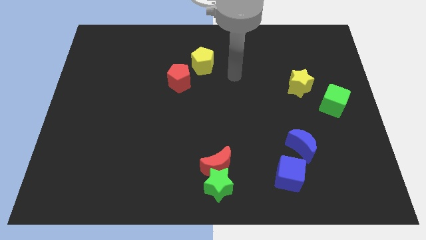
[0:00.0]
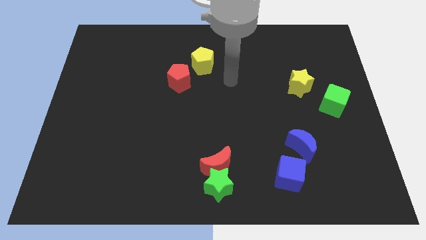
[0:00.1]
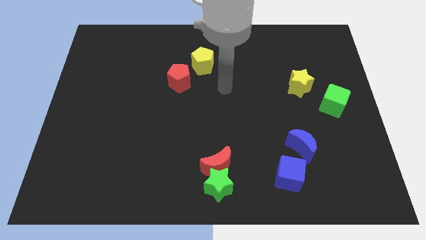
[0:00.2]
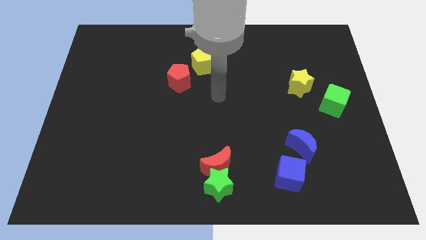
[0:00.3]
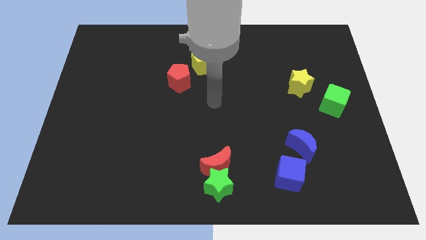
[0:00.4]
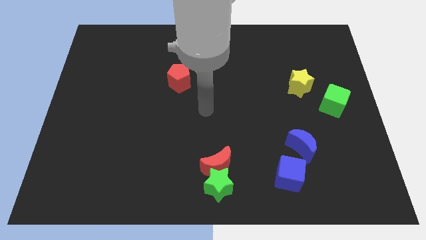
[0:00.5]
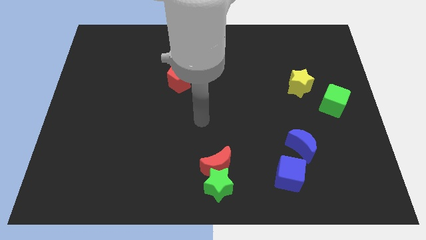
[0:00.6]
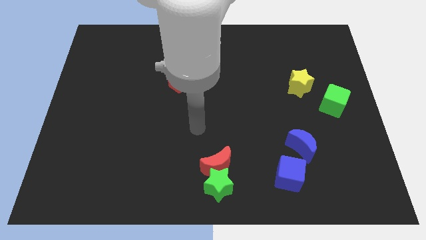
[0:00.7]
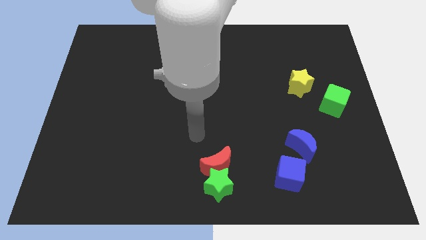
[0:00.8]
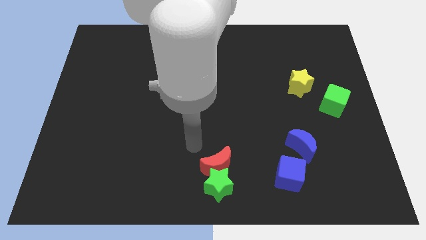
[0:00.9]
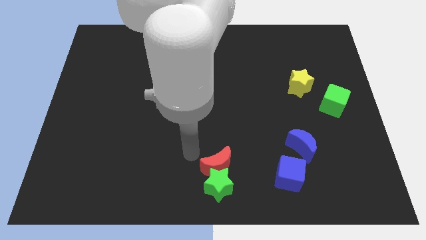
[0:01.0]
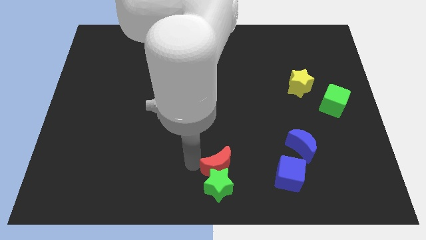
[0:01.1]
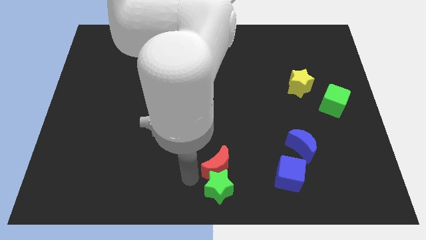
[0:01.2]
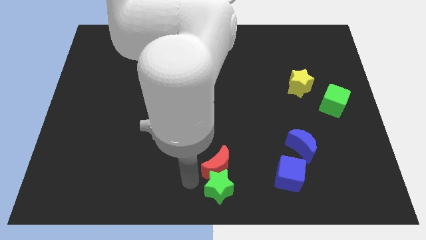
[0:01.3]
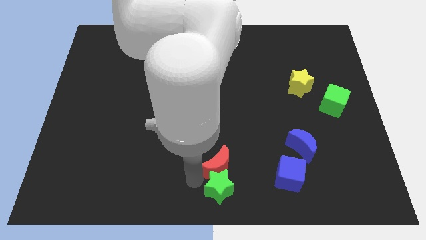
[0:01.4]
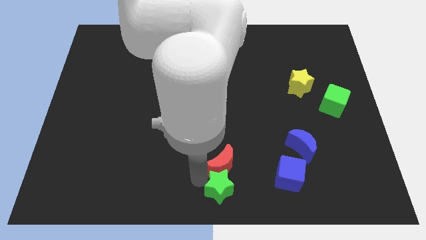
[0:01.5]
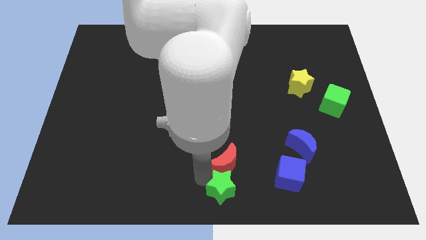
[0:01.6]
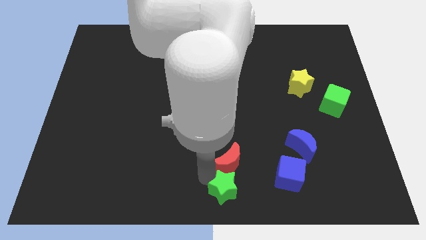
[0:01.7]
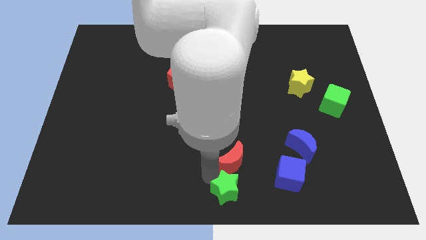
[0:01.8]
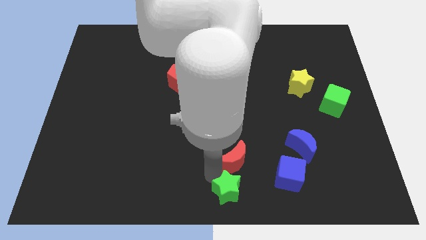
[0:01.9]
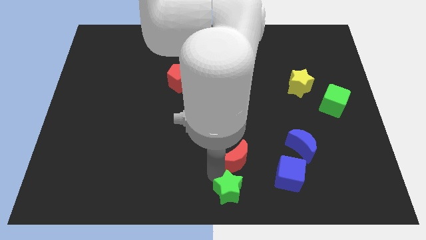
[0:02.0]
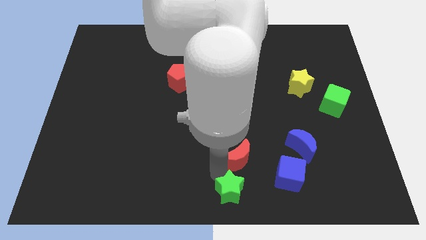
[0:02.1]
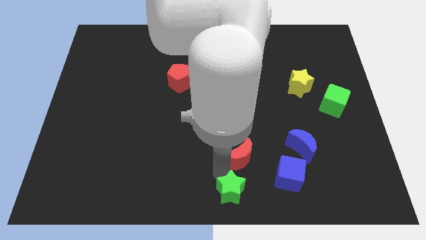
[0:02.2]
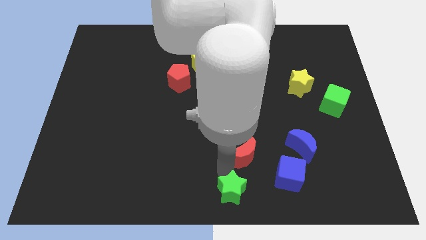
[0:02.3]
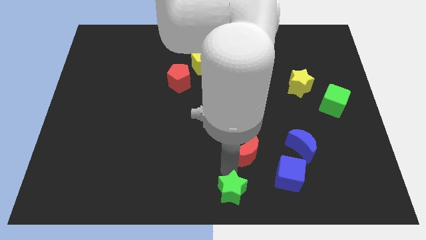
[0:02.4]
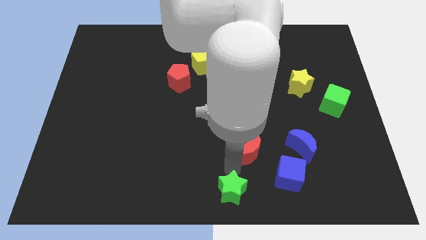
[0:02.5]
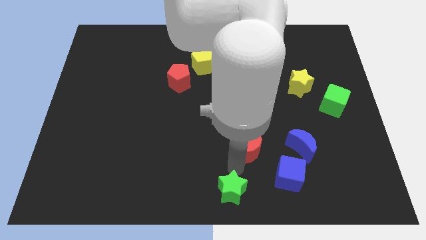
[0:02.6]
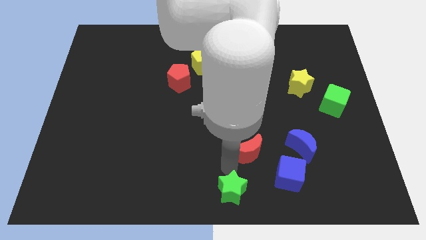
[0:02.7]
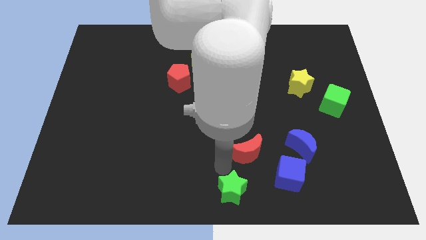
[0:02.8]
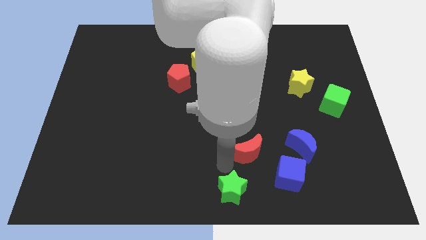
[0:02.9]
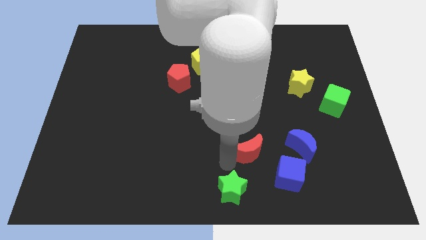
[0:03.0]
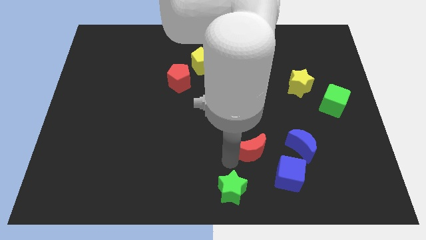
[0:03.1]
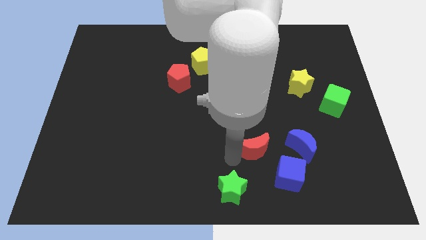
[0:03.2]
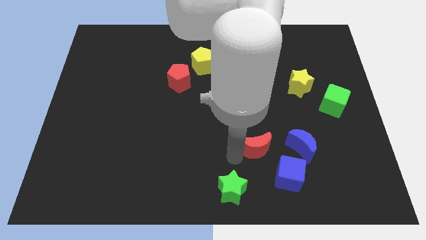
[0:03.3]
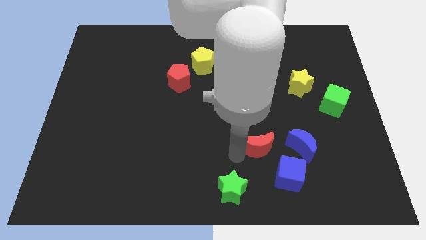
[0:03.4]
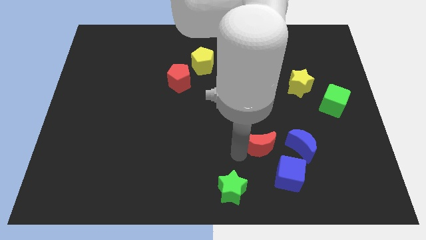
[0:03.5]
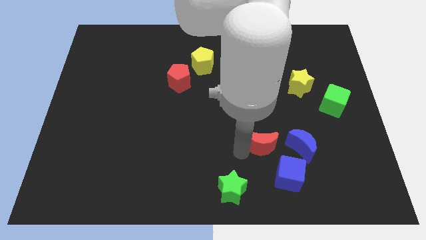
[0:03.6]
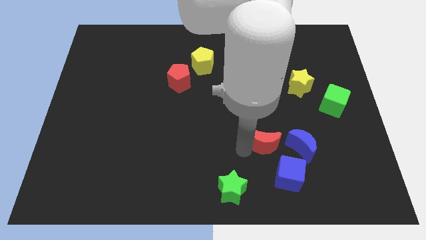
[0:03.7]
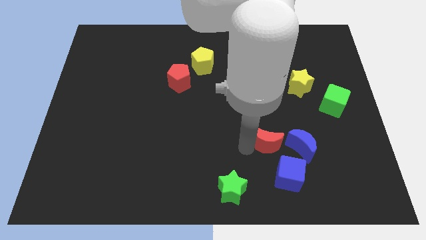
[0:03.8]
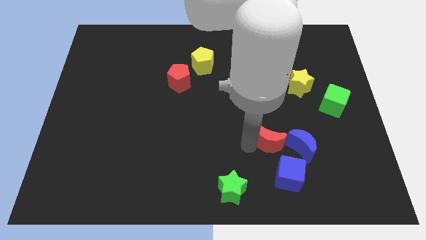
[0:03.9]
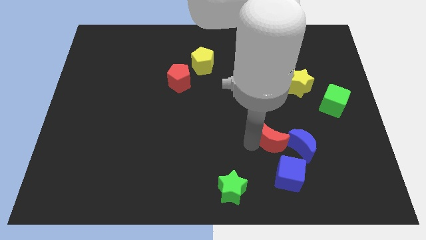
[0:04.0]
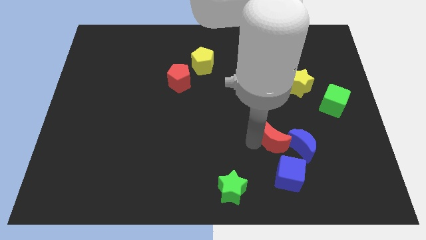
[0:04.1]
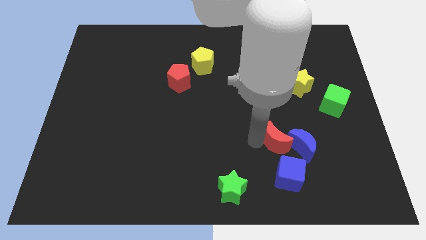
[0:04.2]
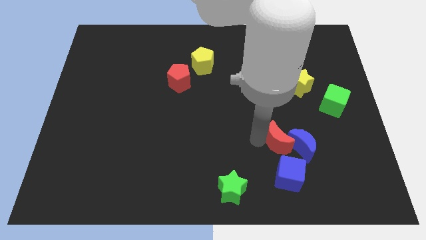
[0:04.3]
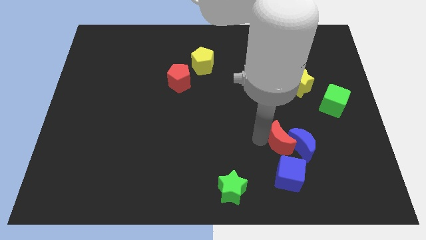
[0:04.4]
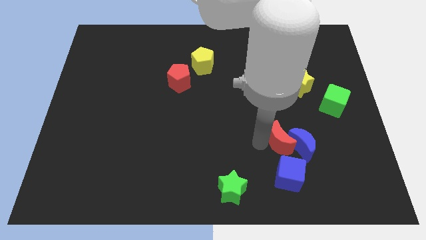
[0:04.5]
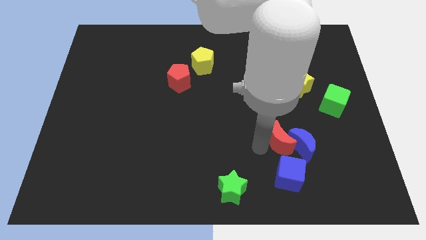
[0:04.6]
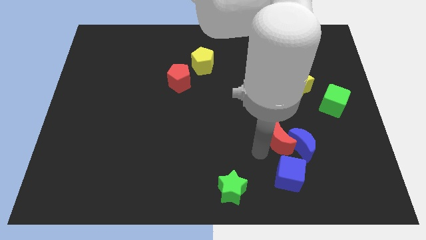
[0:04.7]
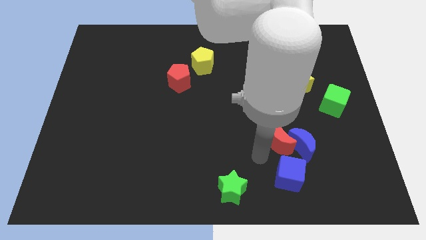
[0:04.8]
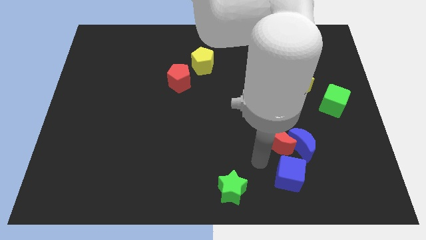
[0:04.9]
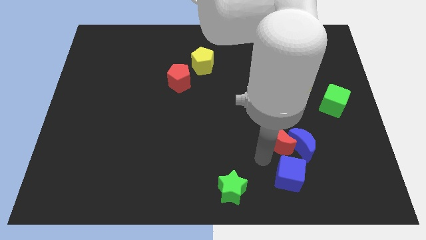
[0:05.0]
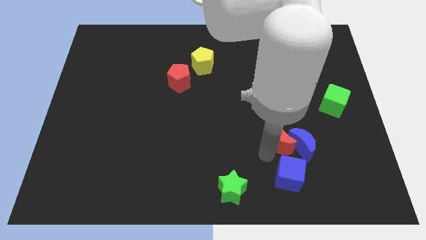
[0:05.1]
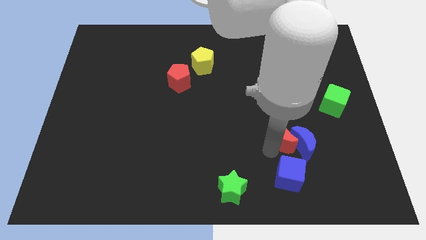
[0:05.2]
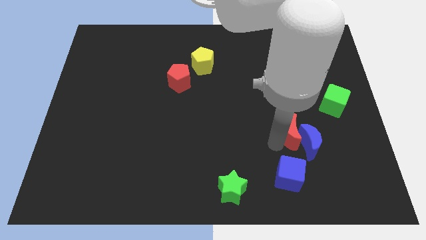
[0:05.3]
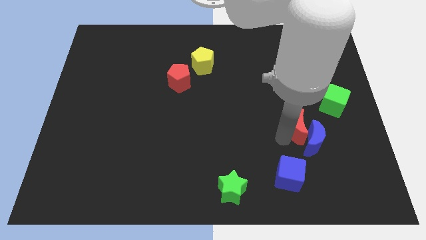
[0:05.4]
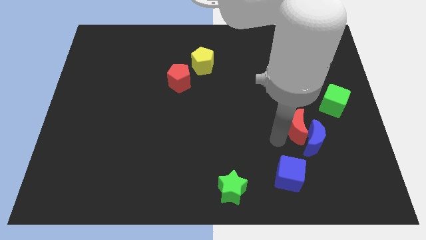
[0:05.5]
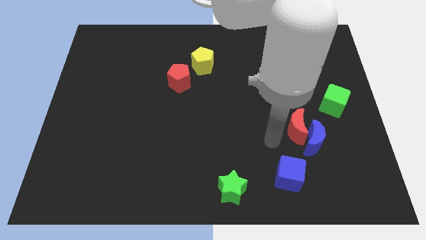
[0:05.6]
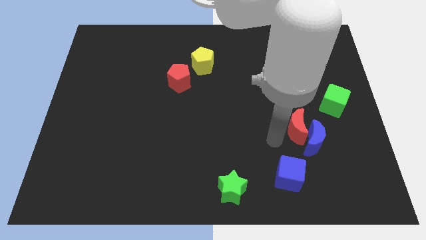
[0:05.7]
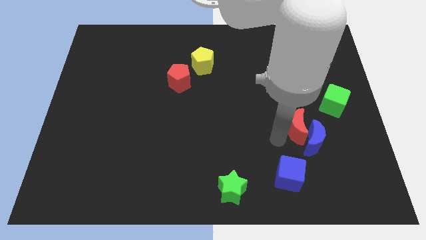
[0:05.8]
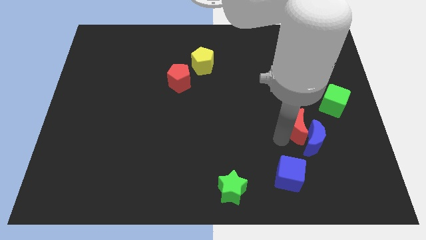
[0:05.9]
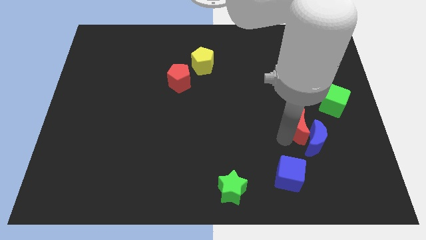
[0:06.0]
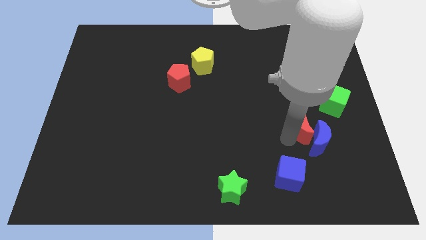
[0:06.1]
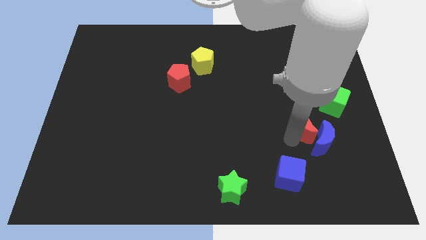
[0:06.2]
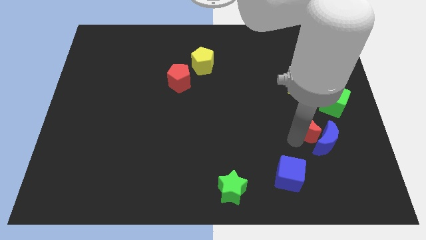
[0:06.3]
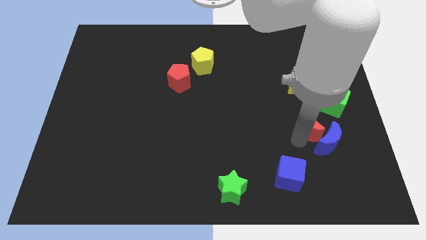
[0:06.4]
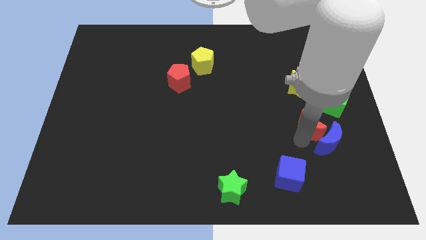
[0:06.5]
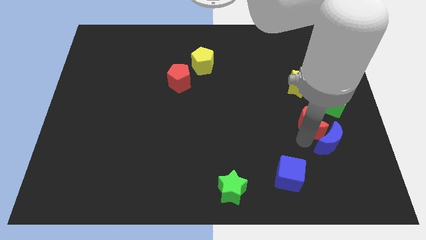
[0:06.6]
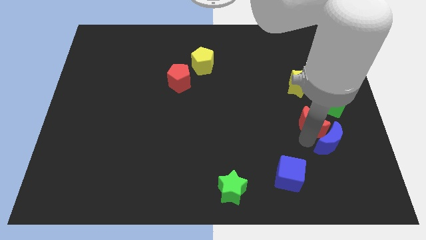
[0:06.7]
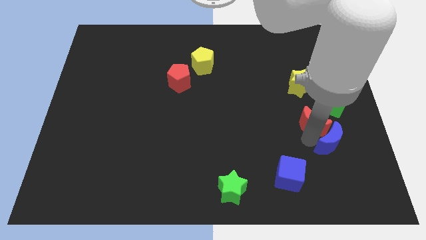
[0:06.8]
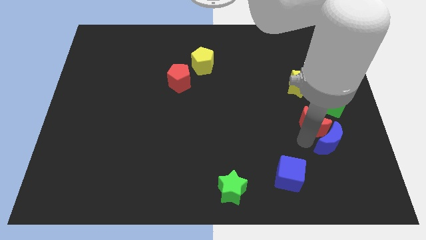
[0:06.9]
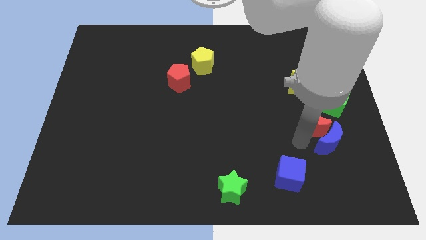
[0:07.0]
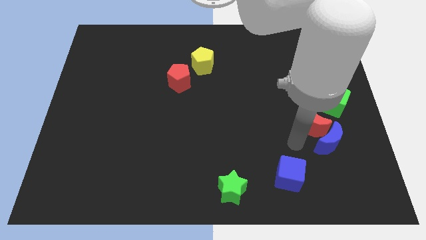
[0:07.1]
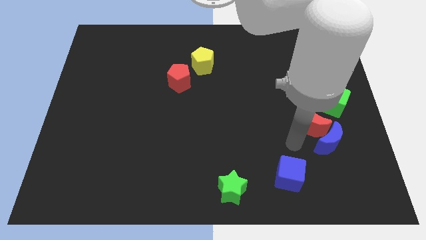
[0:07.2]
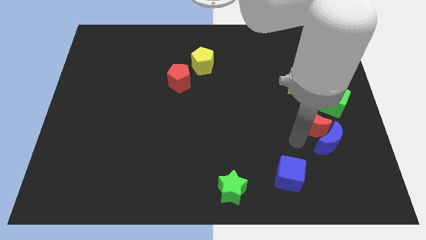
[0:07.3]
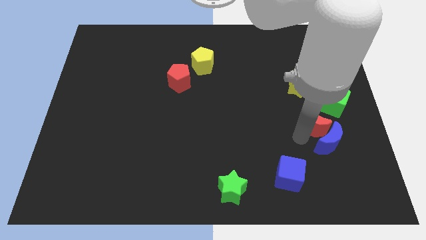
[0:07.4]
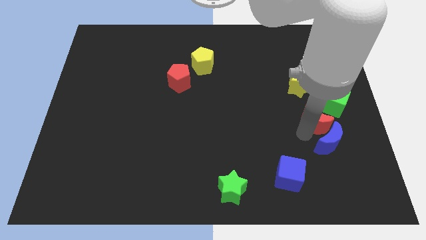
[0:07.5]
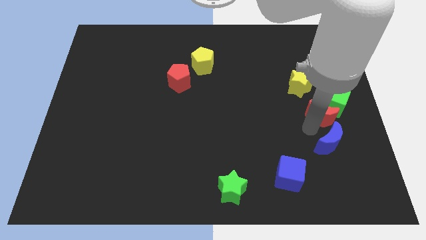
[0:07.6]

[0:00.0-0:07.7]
move the red moon towards the green cube
